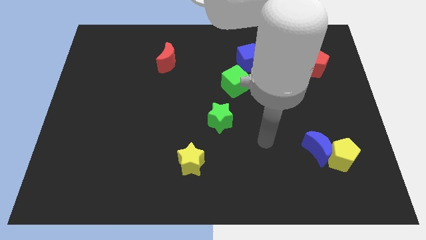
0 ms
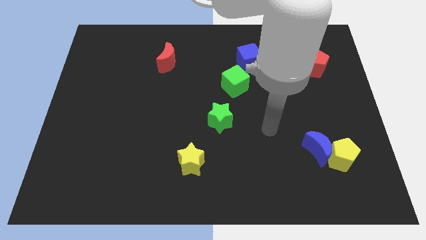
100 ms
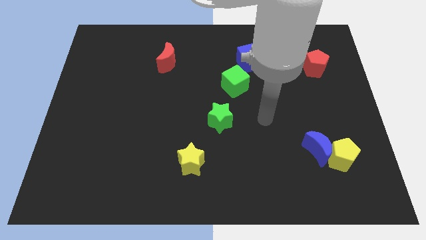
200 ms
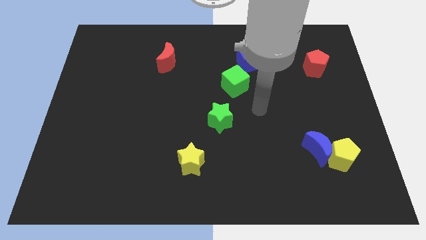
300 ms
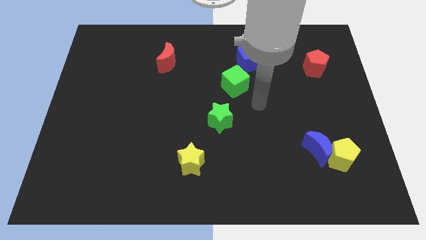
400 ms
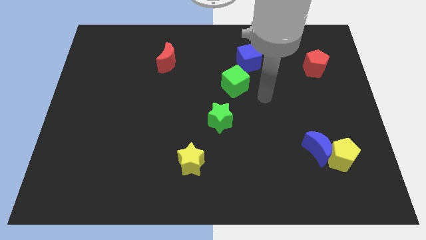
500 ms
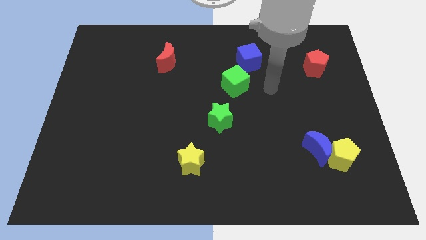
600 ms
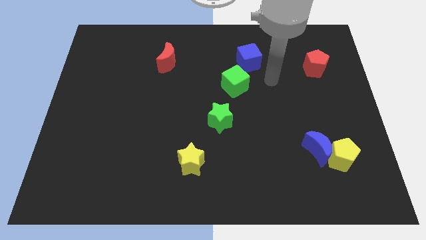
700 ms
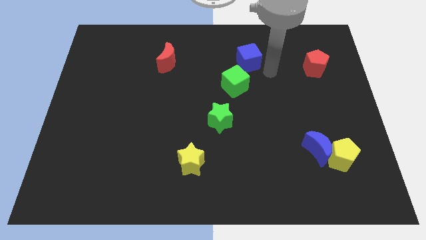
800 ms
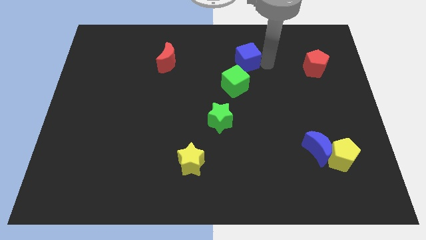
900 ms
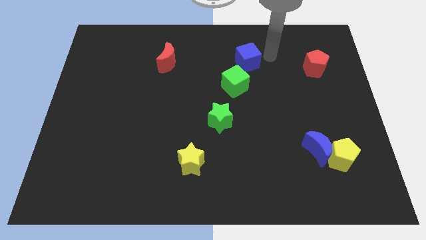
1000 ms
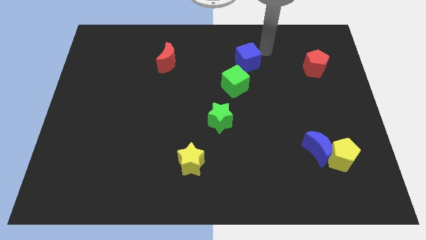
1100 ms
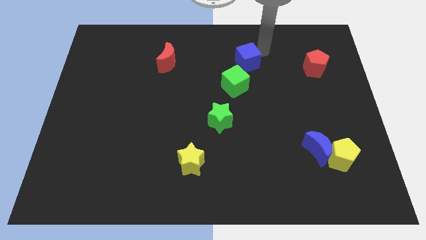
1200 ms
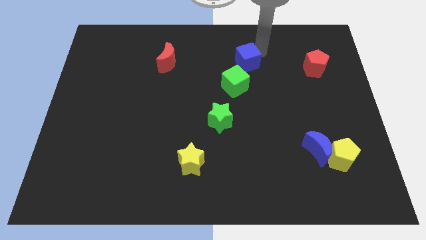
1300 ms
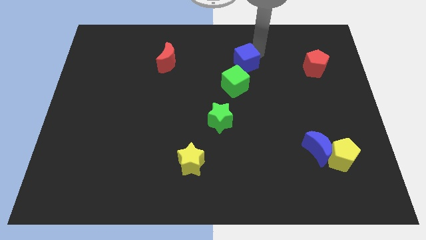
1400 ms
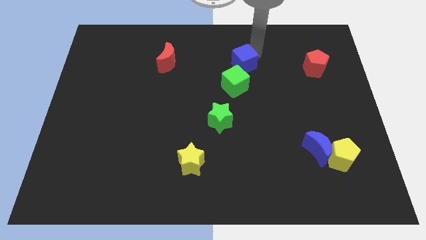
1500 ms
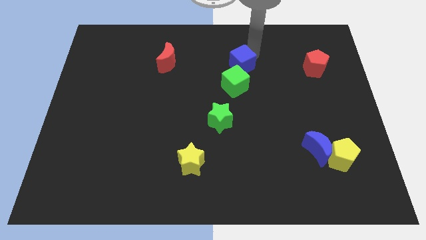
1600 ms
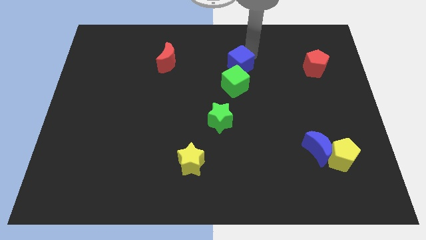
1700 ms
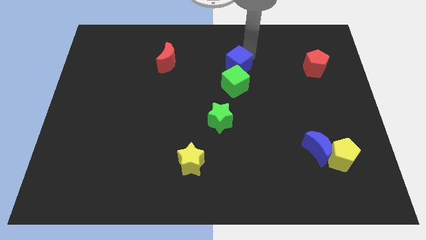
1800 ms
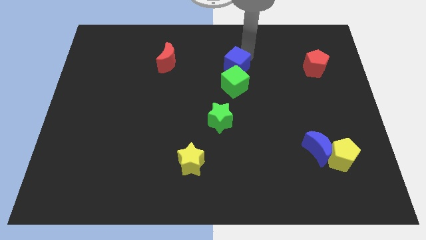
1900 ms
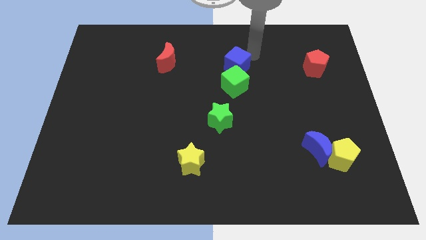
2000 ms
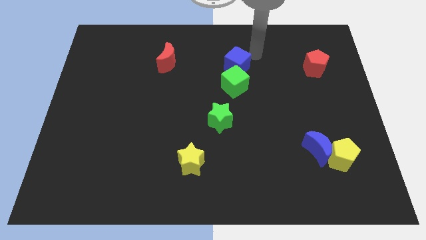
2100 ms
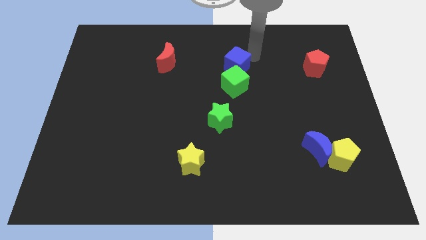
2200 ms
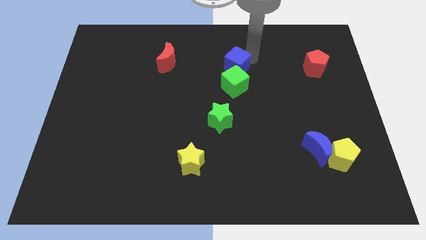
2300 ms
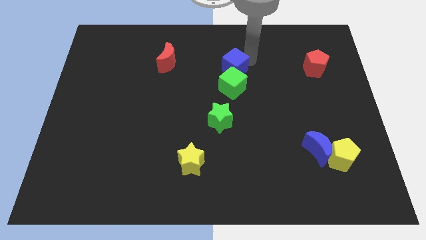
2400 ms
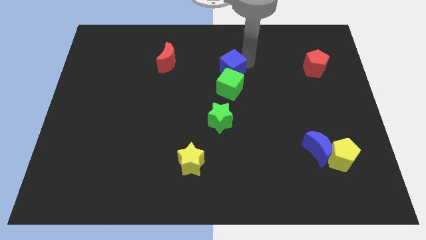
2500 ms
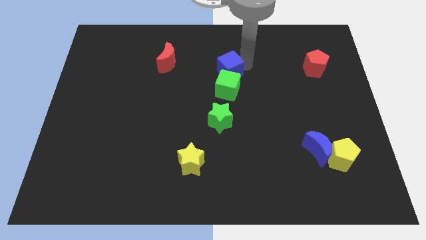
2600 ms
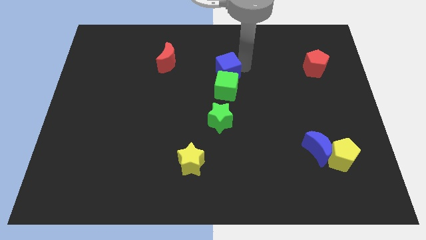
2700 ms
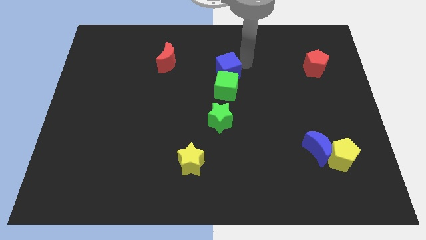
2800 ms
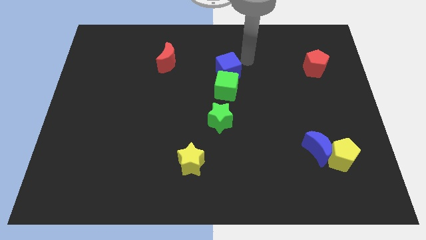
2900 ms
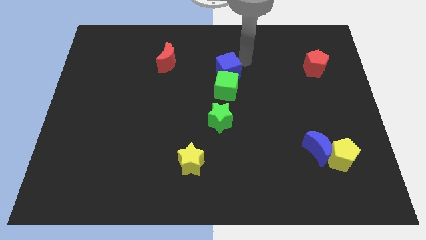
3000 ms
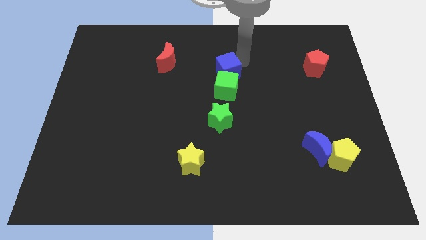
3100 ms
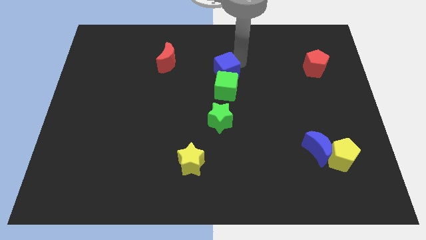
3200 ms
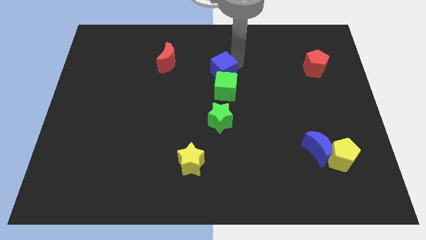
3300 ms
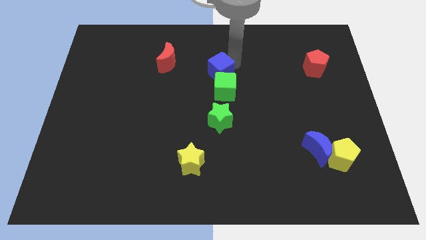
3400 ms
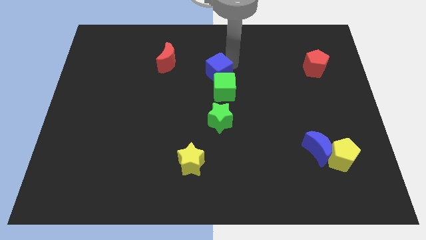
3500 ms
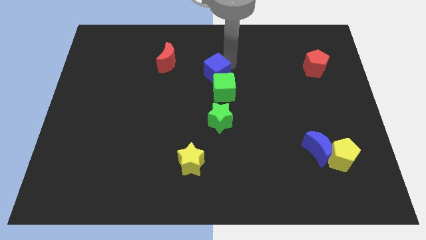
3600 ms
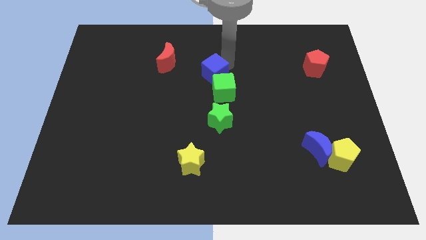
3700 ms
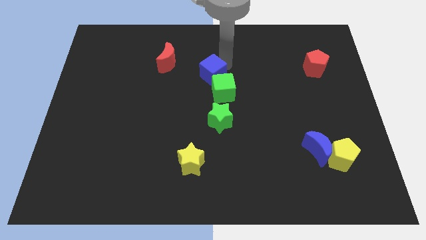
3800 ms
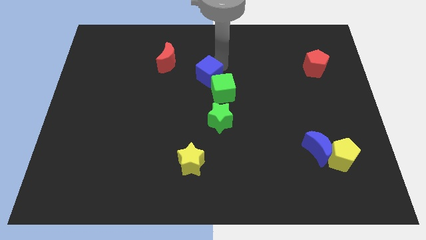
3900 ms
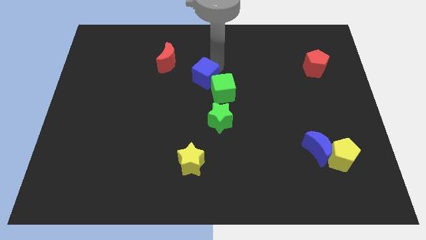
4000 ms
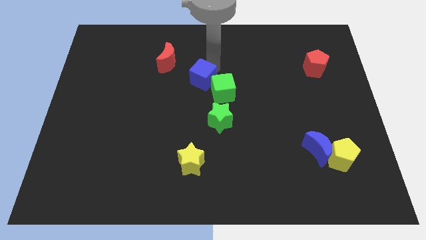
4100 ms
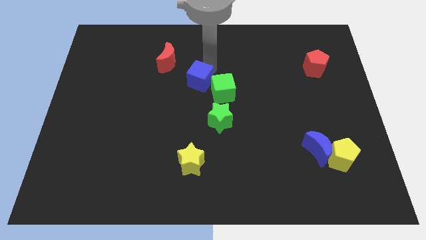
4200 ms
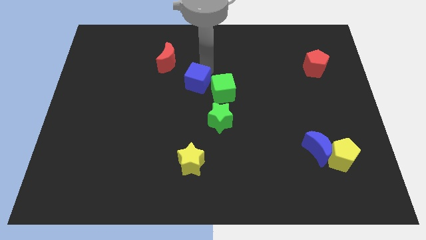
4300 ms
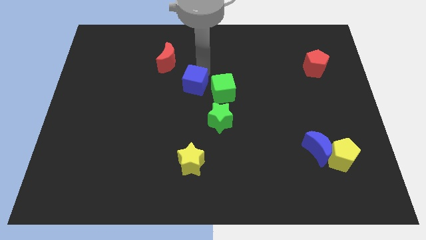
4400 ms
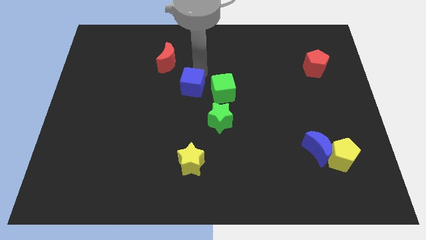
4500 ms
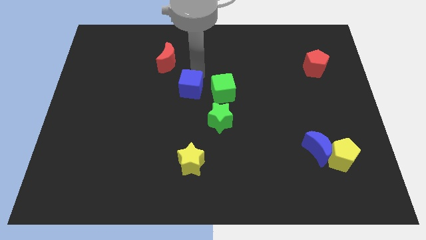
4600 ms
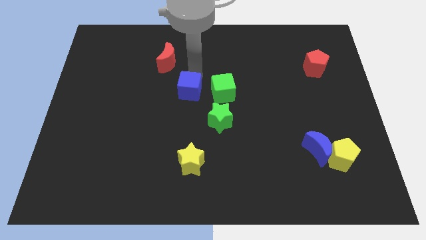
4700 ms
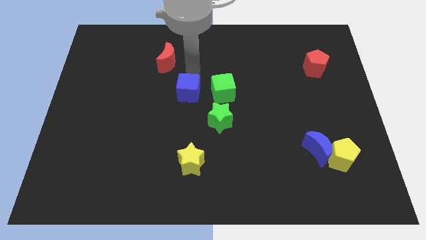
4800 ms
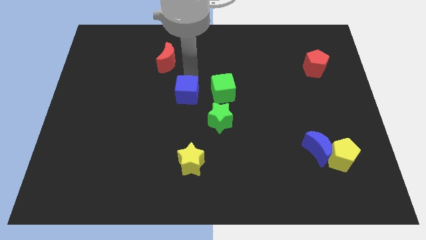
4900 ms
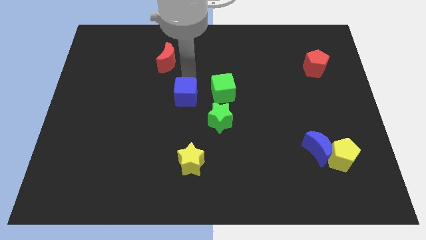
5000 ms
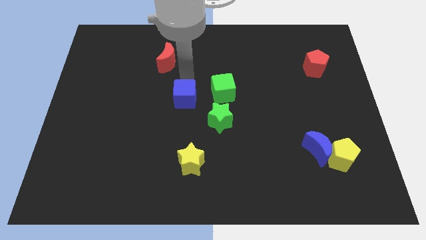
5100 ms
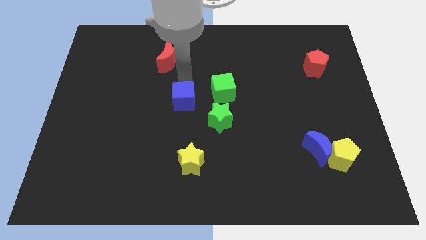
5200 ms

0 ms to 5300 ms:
push the blue cube to the bottom left side of the green cube

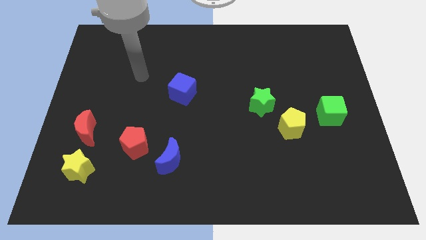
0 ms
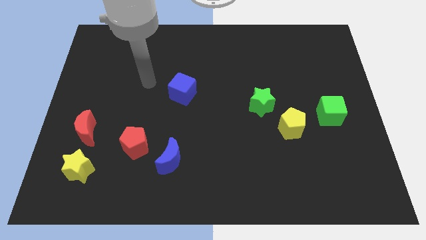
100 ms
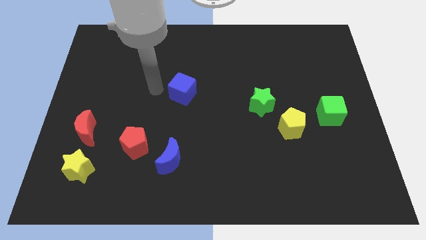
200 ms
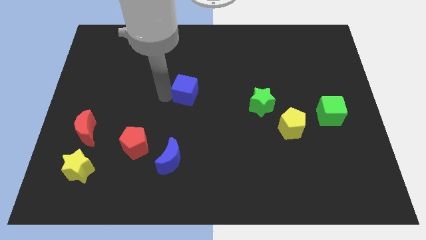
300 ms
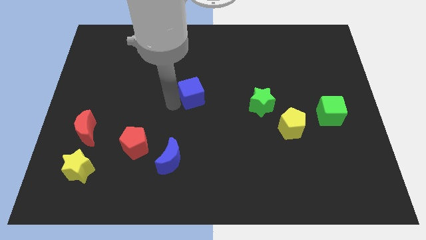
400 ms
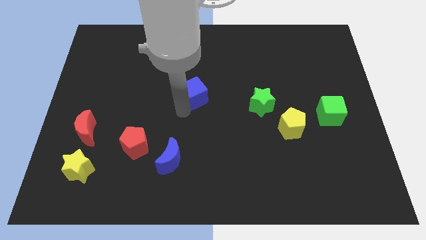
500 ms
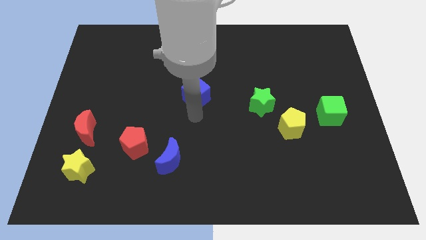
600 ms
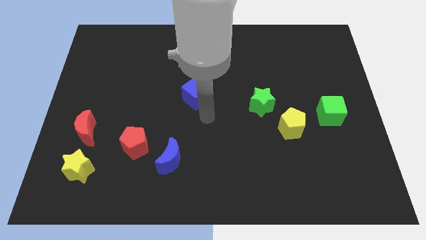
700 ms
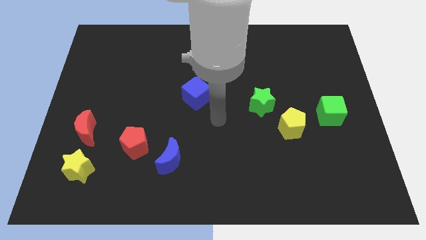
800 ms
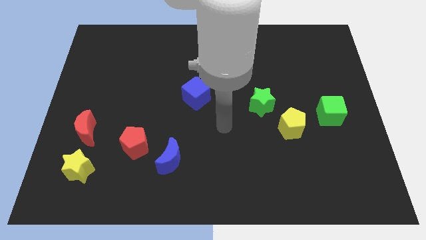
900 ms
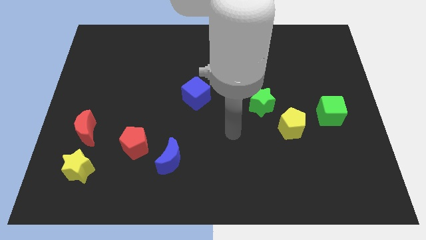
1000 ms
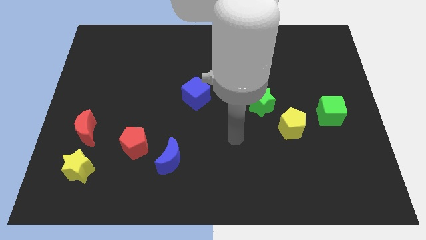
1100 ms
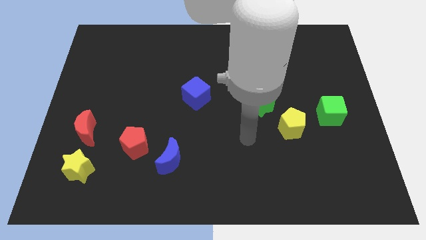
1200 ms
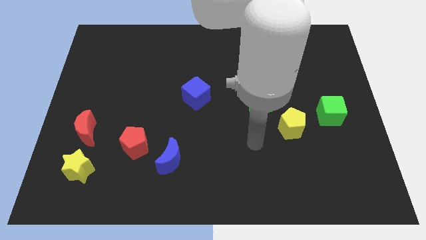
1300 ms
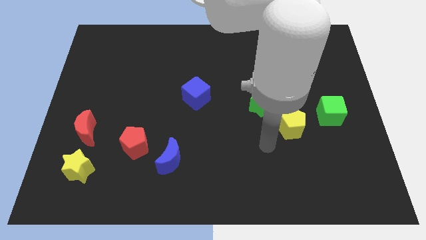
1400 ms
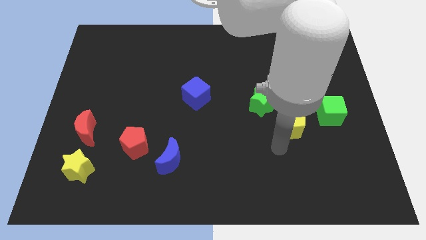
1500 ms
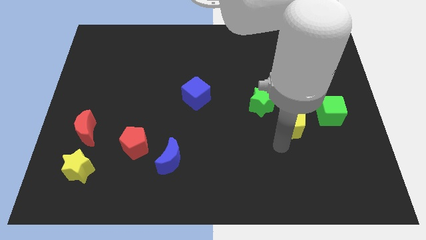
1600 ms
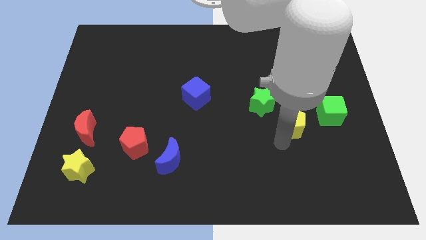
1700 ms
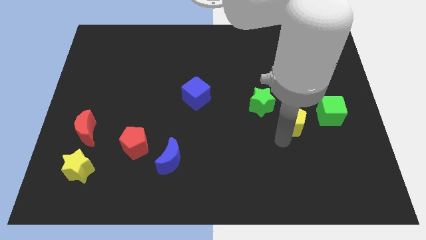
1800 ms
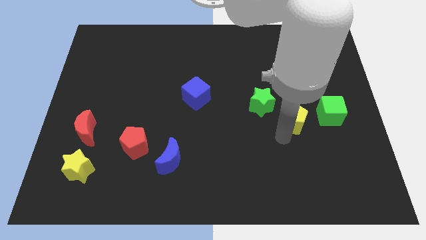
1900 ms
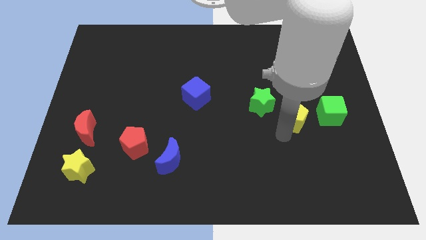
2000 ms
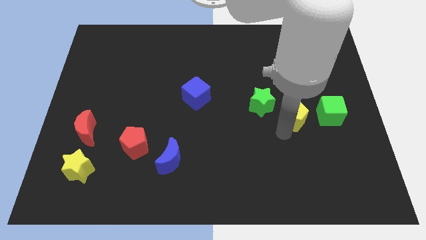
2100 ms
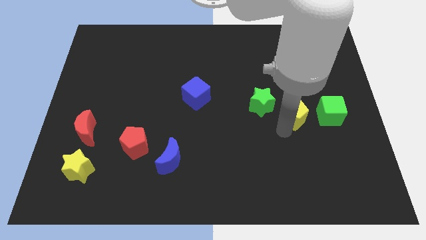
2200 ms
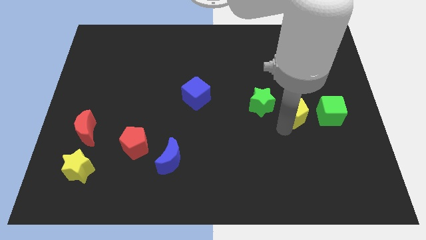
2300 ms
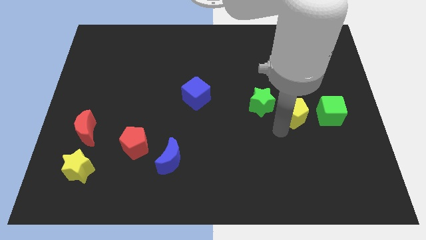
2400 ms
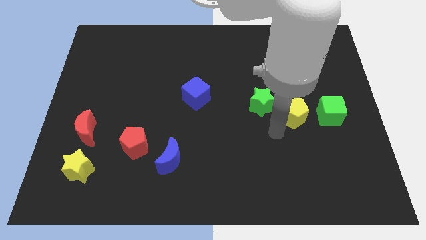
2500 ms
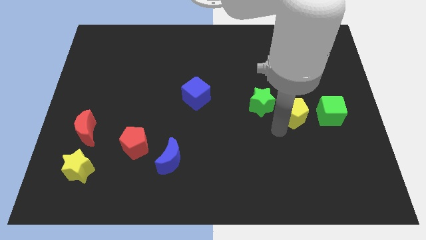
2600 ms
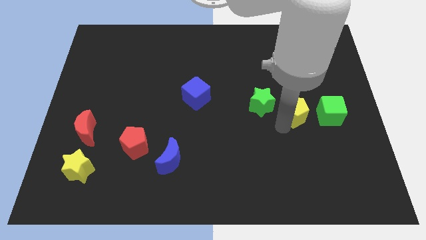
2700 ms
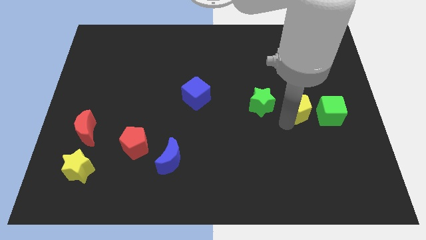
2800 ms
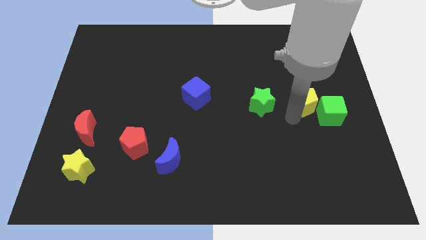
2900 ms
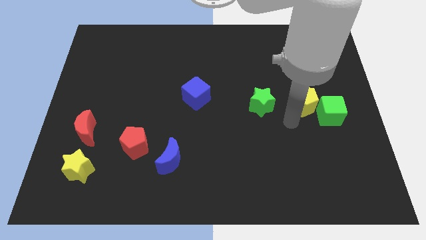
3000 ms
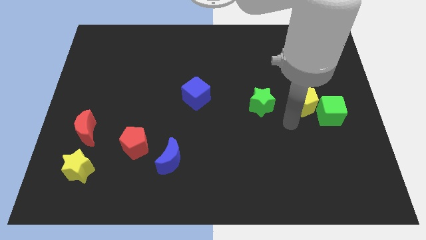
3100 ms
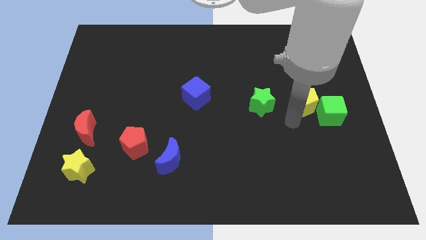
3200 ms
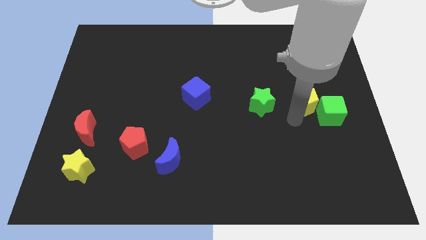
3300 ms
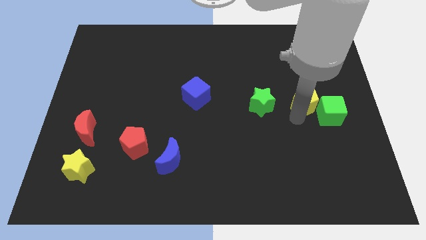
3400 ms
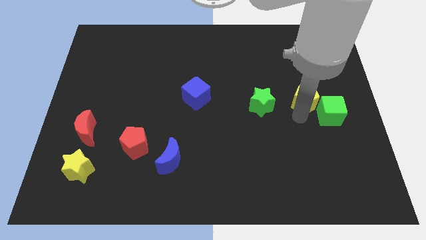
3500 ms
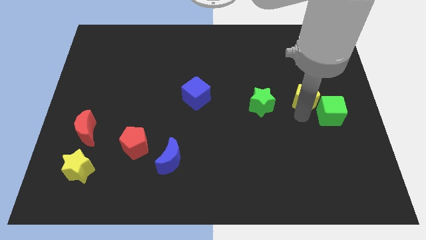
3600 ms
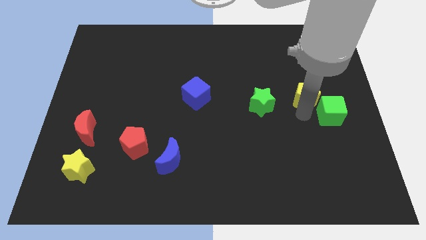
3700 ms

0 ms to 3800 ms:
slide the yellow pentagon to the top side of the green cube
